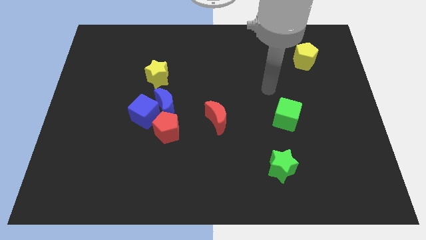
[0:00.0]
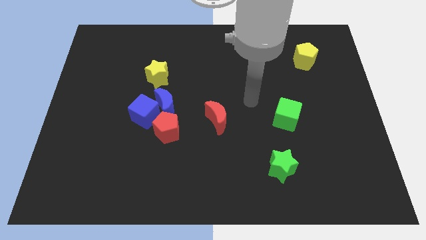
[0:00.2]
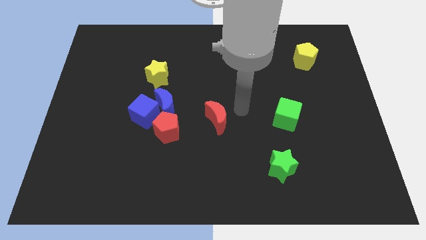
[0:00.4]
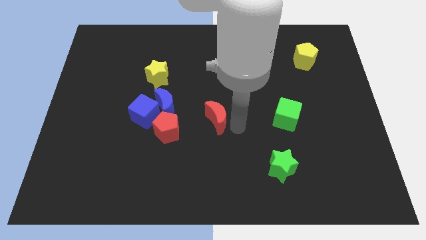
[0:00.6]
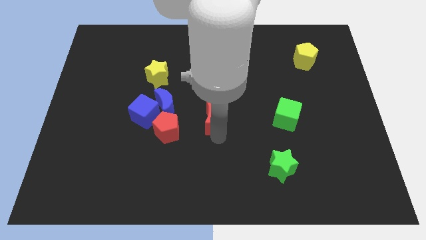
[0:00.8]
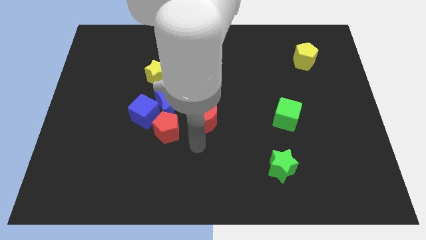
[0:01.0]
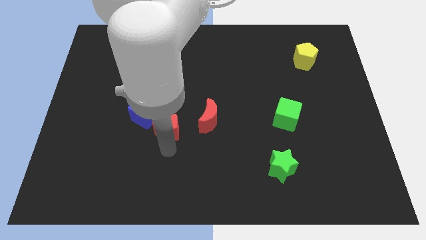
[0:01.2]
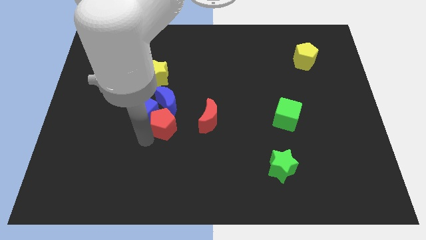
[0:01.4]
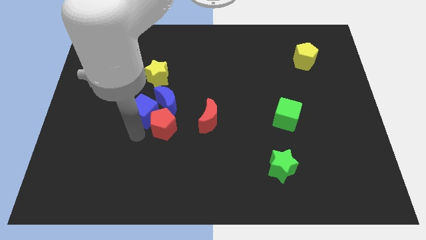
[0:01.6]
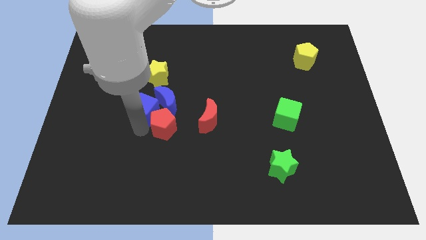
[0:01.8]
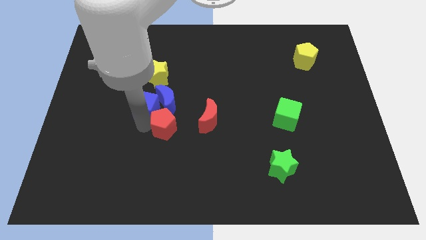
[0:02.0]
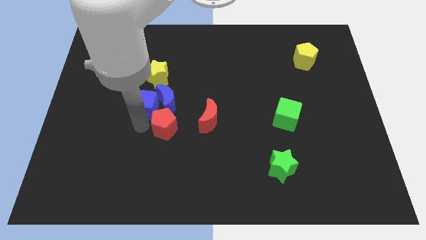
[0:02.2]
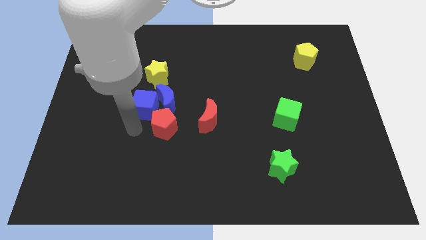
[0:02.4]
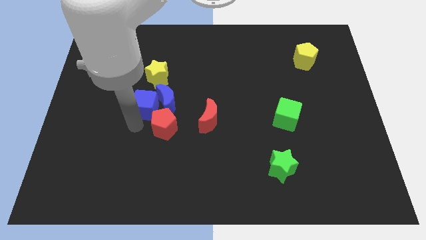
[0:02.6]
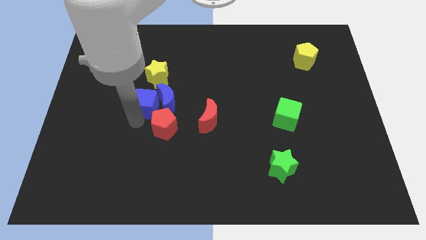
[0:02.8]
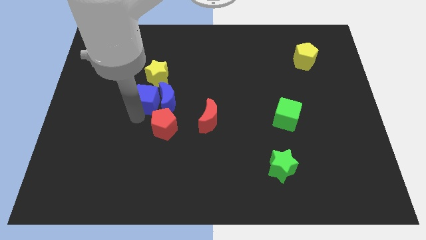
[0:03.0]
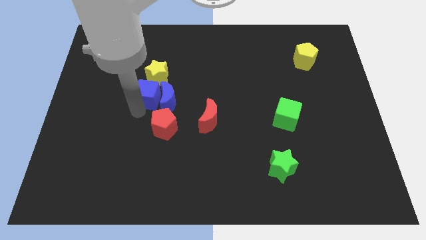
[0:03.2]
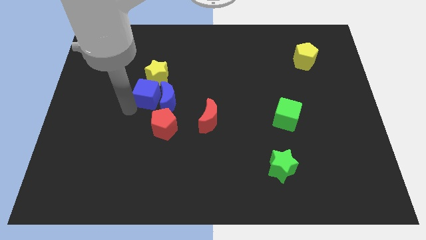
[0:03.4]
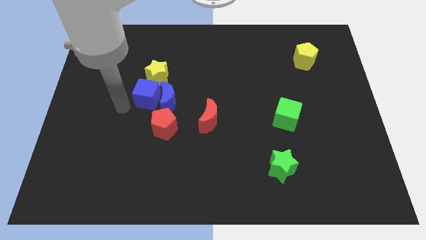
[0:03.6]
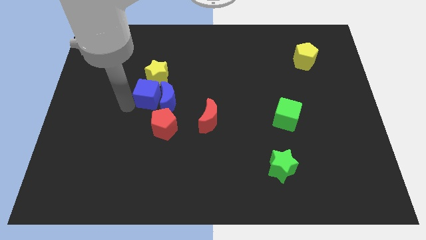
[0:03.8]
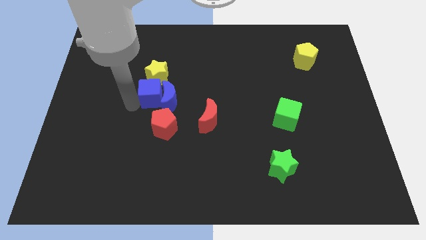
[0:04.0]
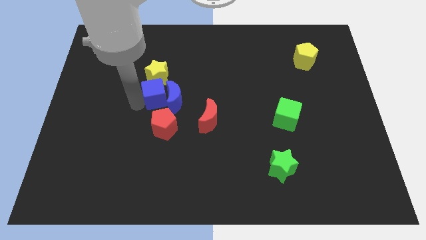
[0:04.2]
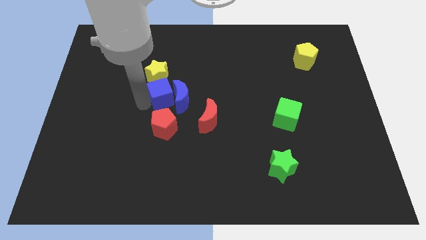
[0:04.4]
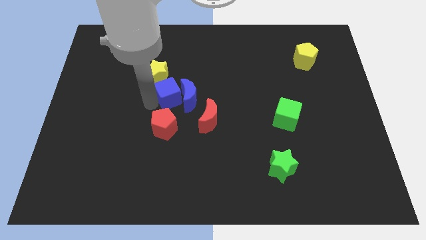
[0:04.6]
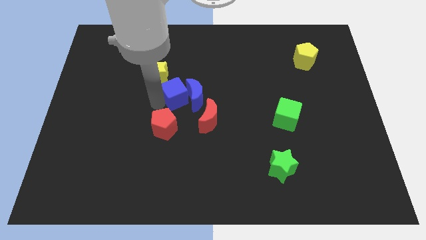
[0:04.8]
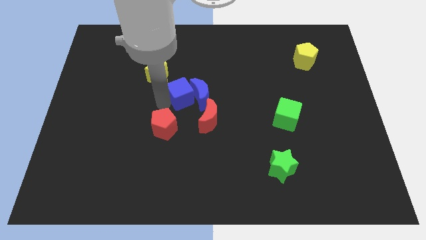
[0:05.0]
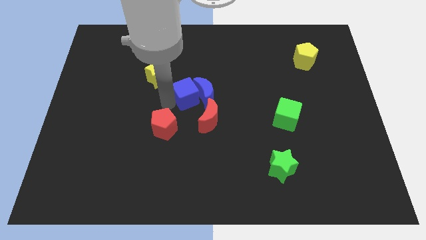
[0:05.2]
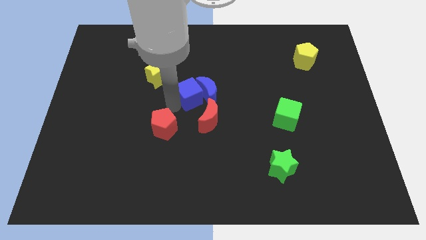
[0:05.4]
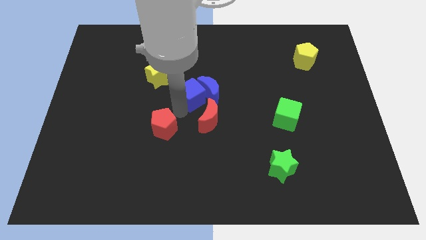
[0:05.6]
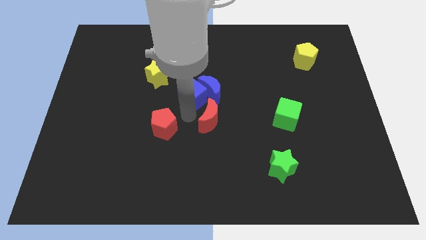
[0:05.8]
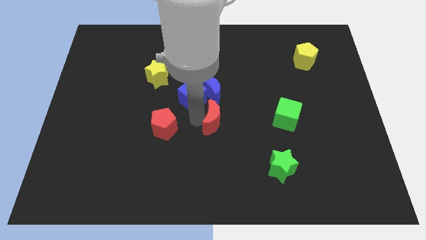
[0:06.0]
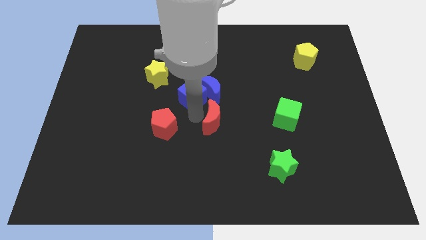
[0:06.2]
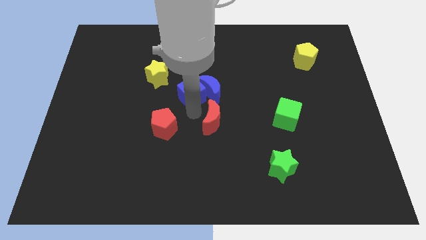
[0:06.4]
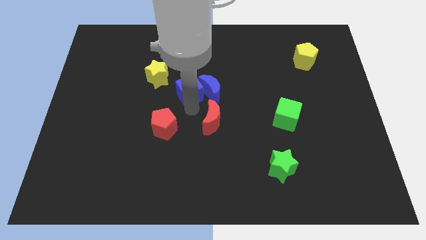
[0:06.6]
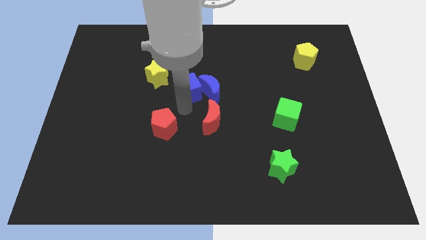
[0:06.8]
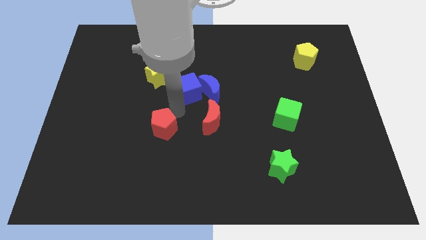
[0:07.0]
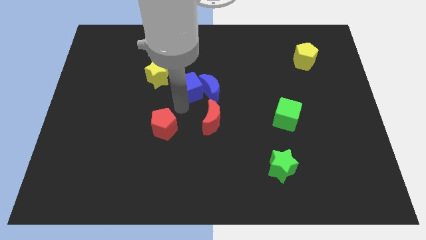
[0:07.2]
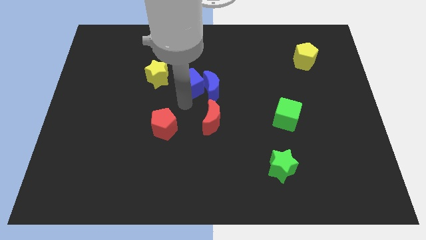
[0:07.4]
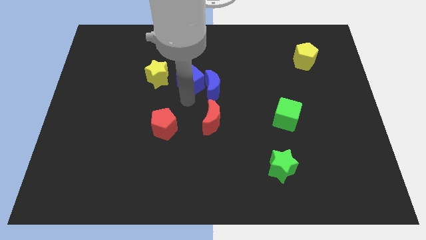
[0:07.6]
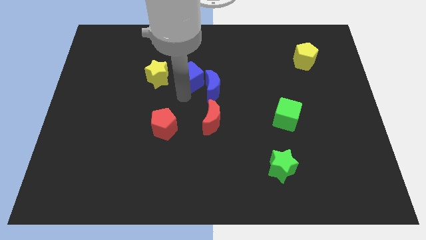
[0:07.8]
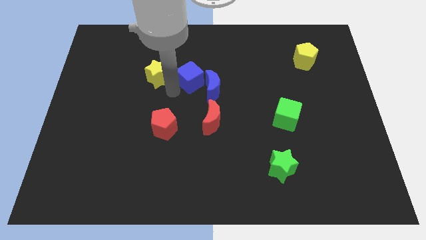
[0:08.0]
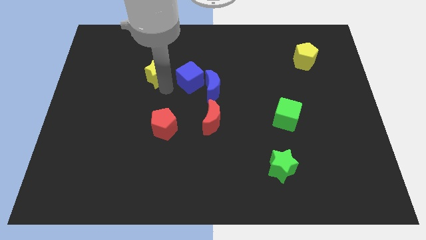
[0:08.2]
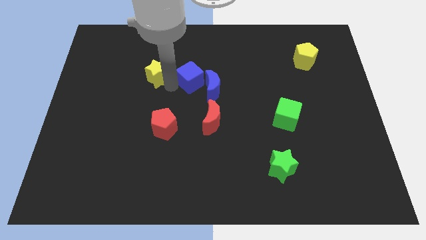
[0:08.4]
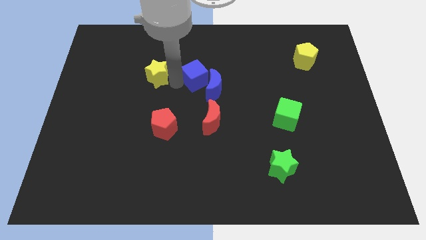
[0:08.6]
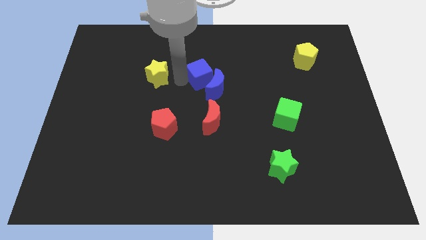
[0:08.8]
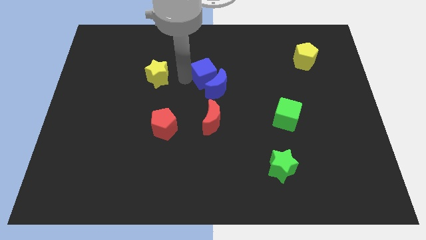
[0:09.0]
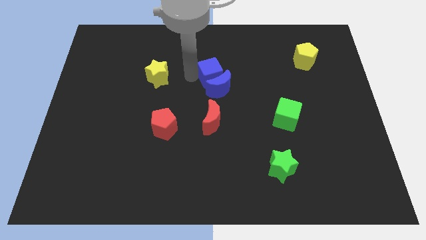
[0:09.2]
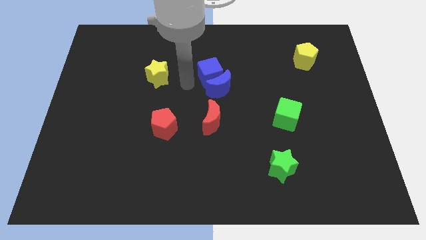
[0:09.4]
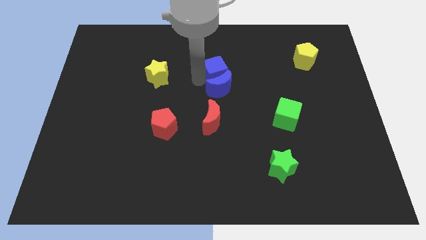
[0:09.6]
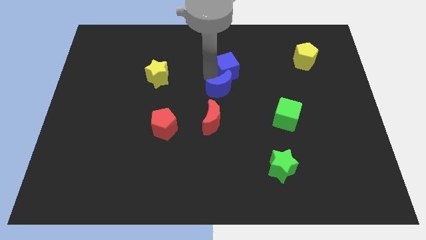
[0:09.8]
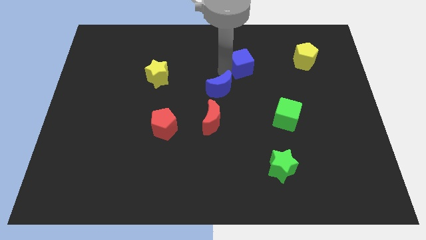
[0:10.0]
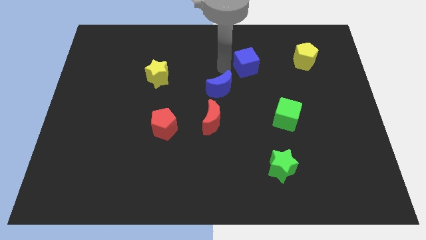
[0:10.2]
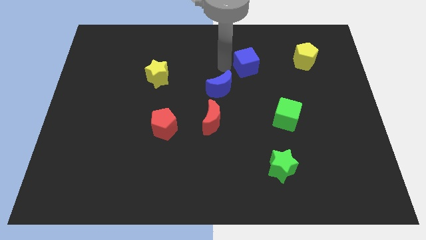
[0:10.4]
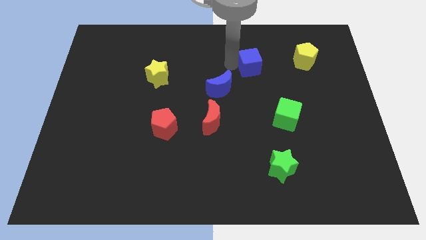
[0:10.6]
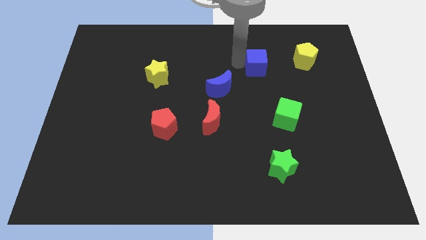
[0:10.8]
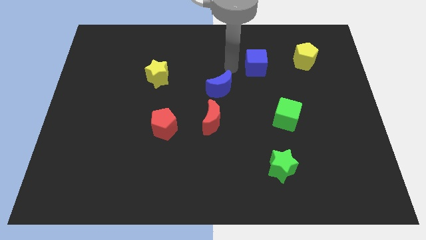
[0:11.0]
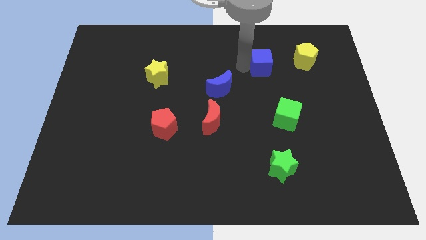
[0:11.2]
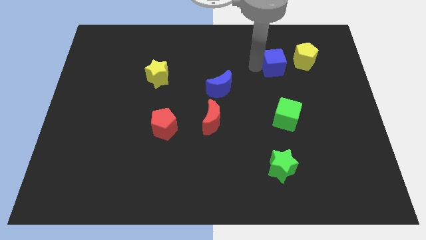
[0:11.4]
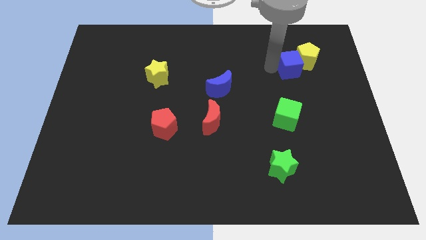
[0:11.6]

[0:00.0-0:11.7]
push the blue cube next to the yellow pentagon

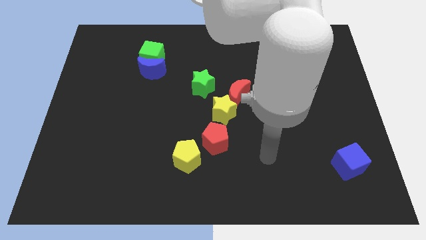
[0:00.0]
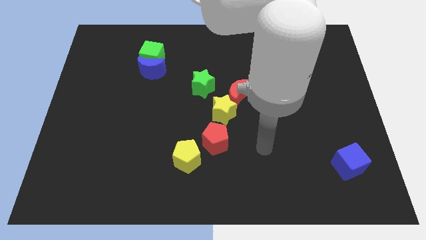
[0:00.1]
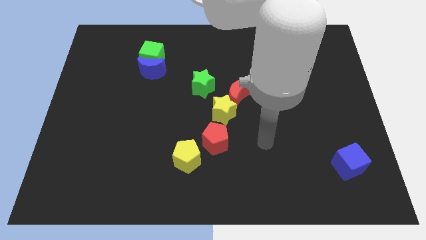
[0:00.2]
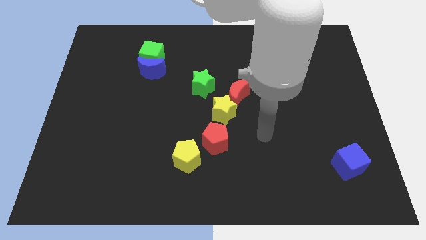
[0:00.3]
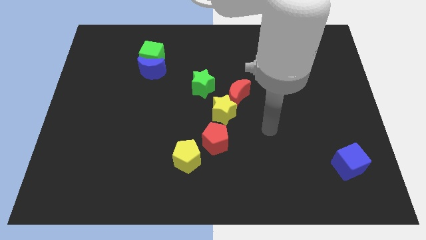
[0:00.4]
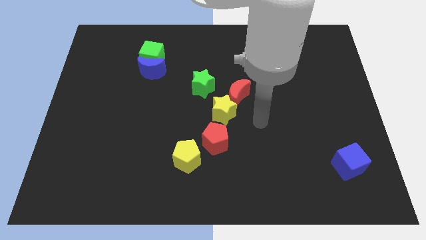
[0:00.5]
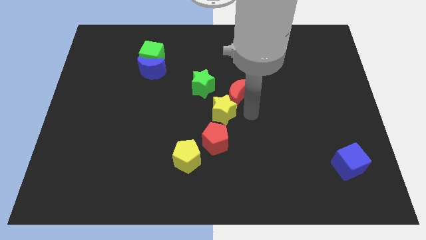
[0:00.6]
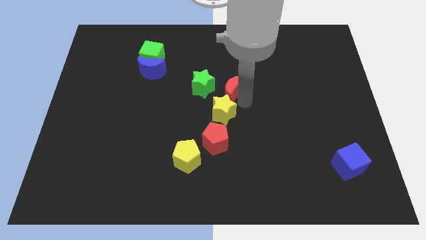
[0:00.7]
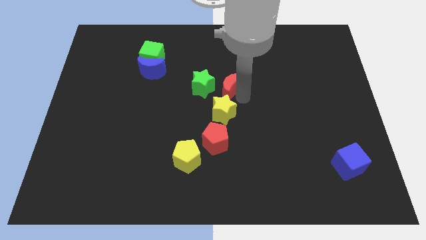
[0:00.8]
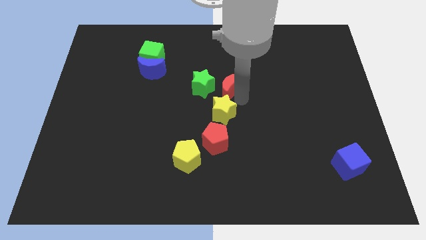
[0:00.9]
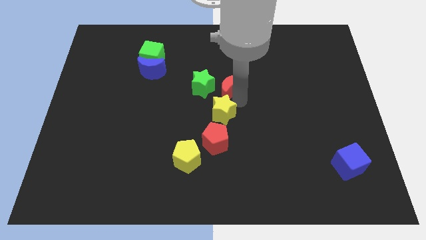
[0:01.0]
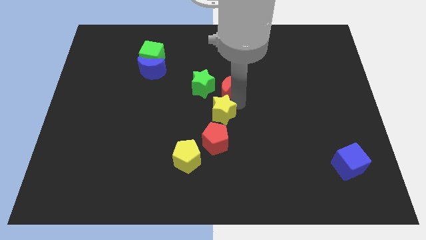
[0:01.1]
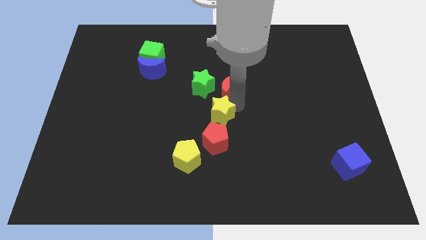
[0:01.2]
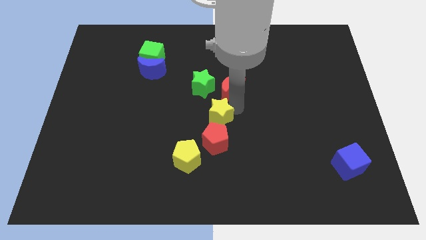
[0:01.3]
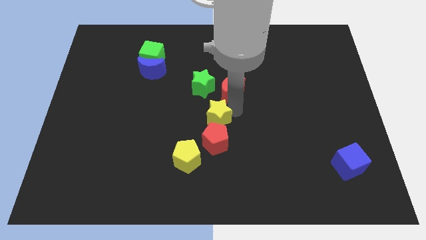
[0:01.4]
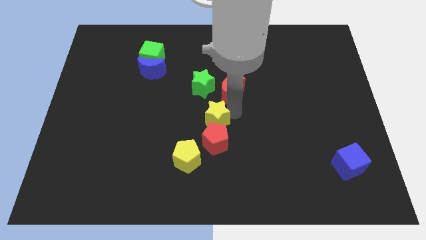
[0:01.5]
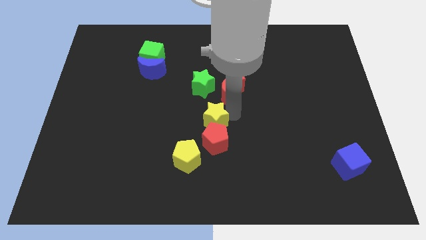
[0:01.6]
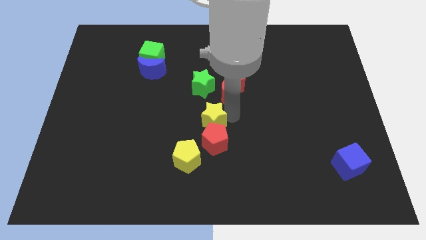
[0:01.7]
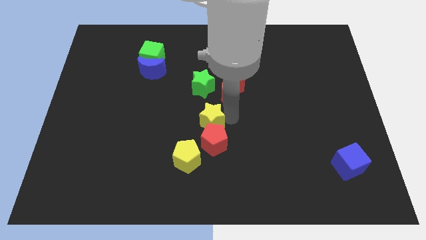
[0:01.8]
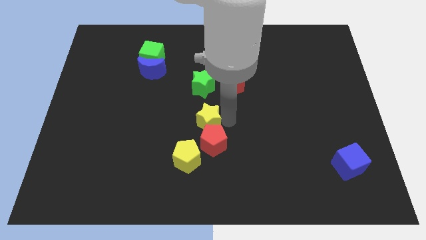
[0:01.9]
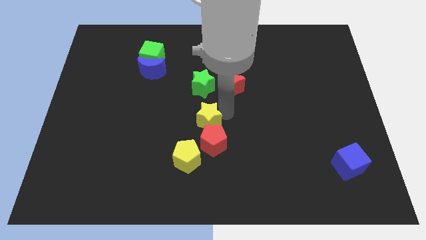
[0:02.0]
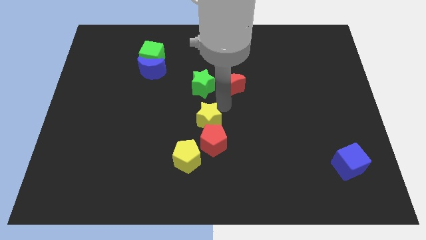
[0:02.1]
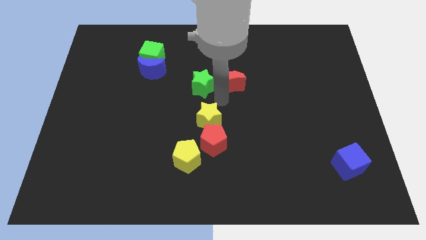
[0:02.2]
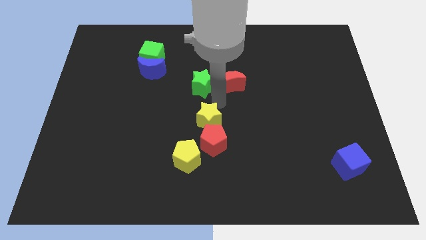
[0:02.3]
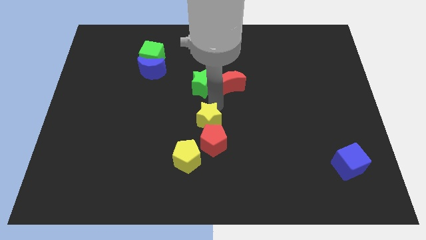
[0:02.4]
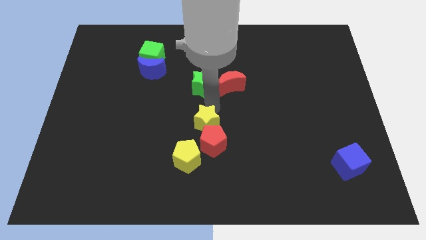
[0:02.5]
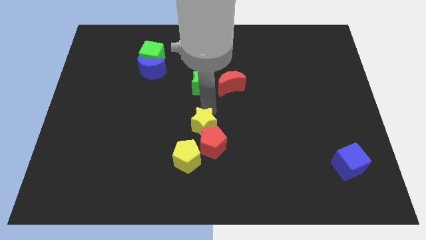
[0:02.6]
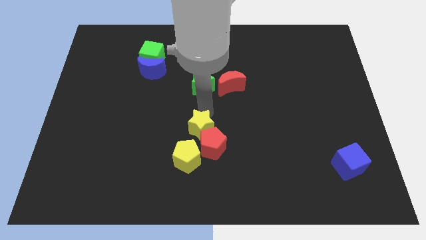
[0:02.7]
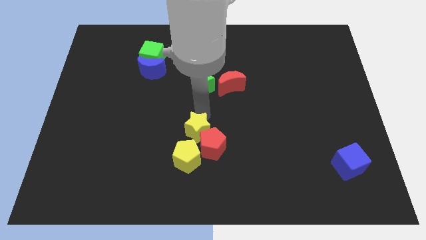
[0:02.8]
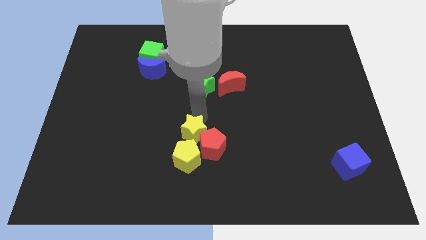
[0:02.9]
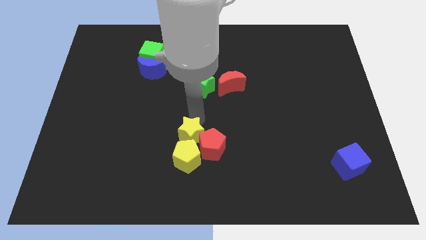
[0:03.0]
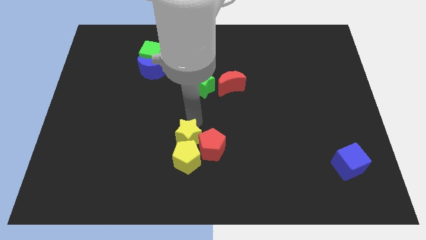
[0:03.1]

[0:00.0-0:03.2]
slide the yellow star close to the yellow pentagon
